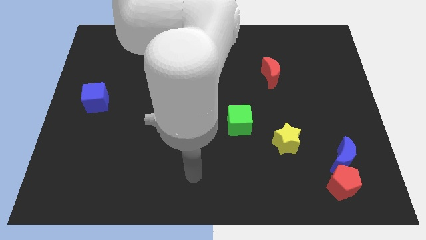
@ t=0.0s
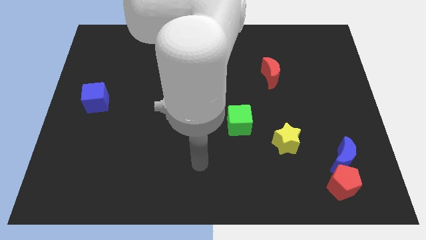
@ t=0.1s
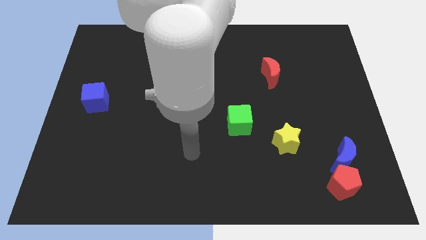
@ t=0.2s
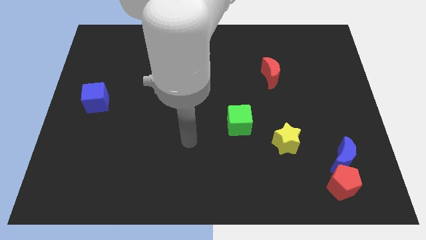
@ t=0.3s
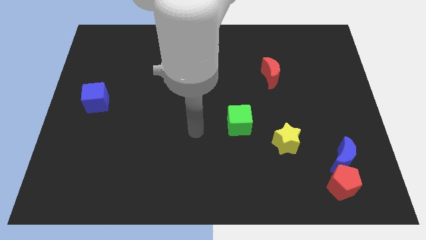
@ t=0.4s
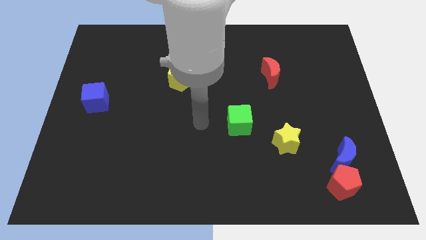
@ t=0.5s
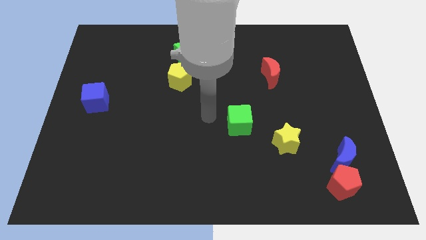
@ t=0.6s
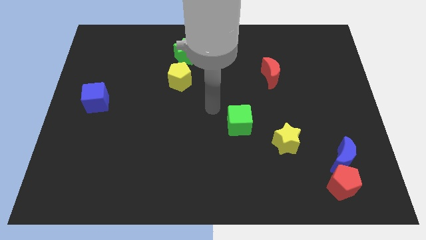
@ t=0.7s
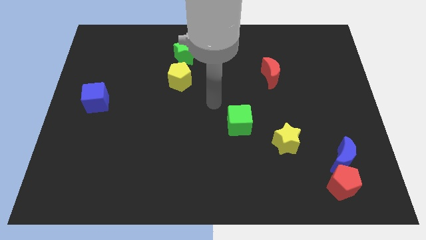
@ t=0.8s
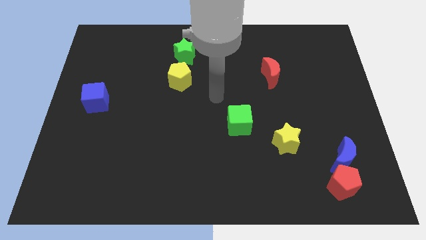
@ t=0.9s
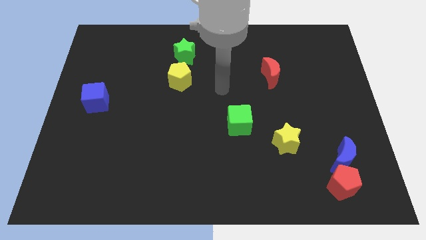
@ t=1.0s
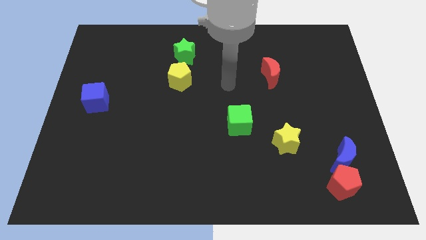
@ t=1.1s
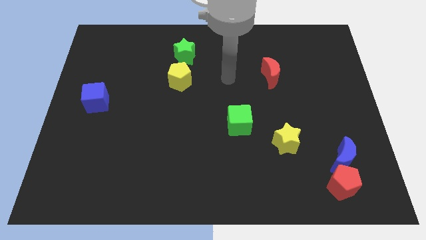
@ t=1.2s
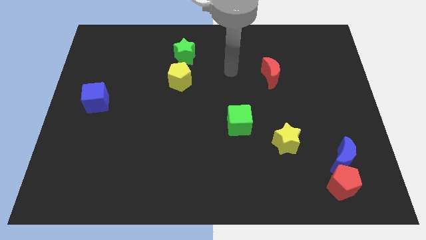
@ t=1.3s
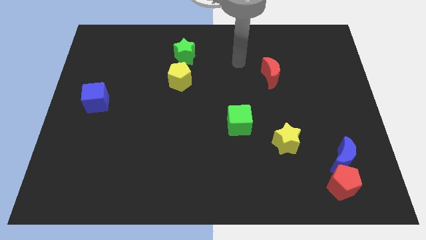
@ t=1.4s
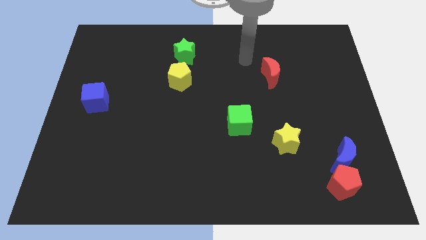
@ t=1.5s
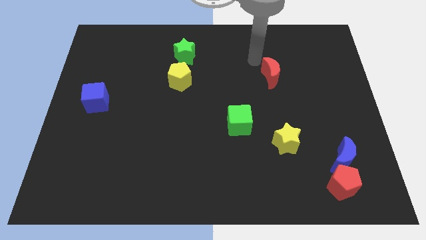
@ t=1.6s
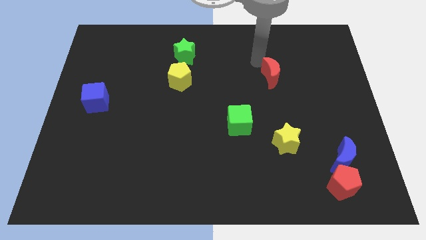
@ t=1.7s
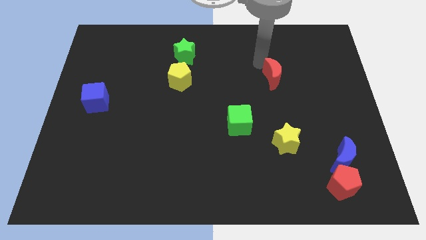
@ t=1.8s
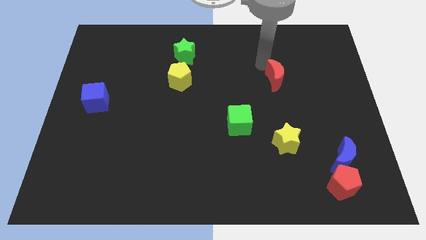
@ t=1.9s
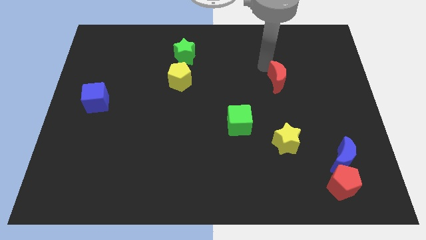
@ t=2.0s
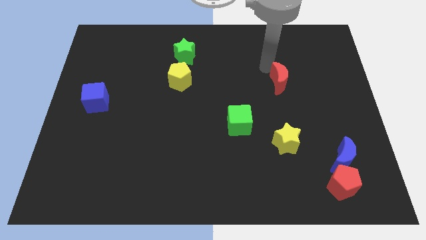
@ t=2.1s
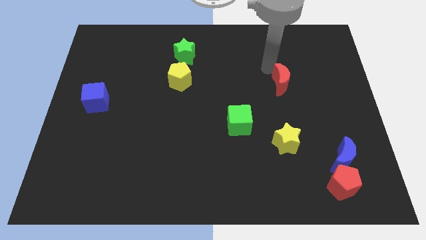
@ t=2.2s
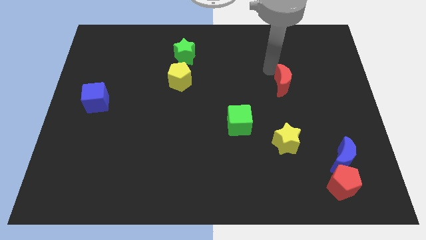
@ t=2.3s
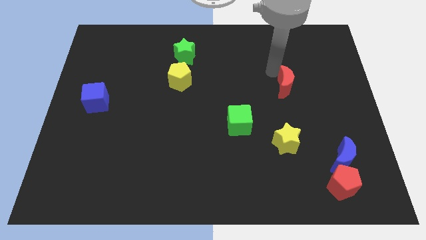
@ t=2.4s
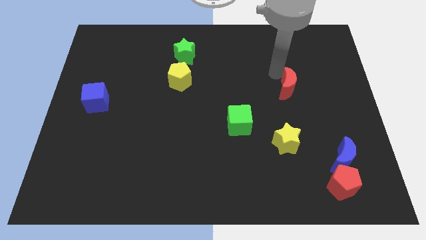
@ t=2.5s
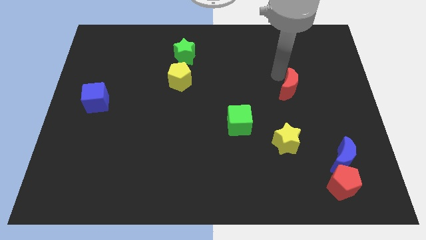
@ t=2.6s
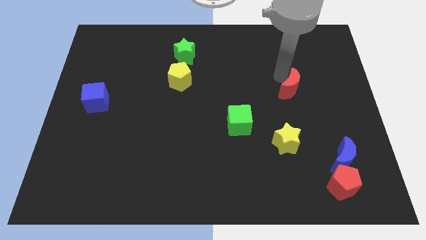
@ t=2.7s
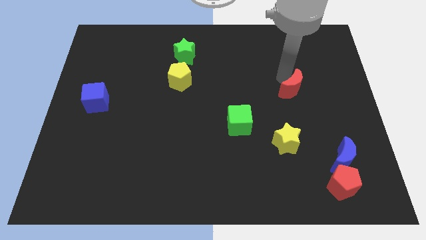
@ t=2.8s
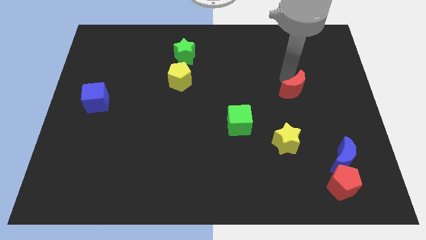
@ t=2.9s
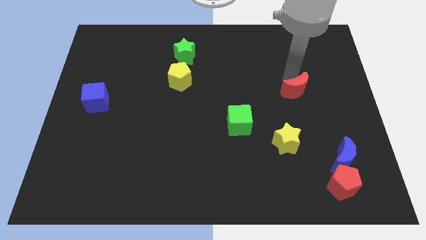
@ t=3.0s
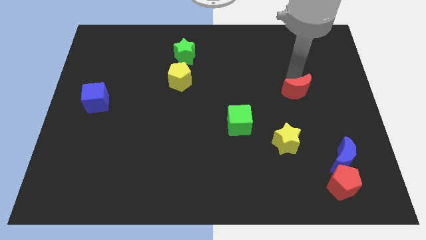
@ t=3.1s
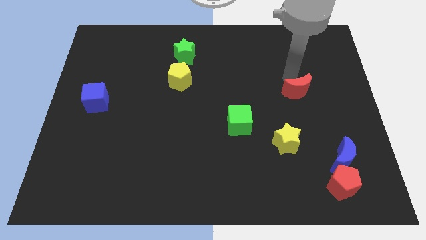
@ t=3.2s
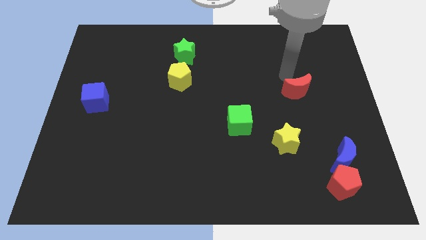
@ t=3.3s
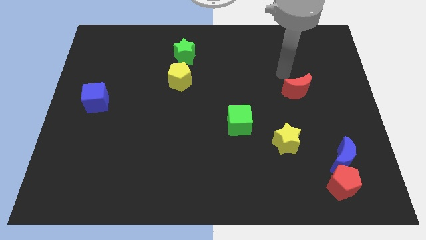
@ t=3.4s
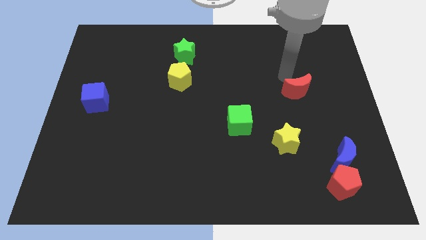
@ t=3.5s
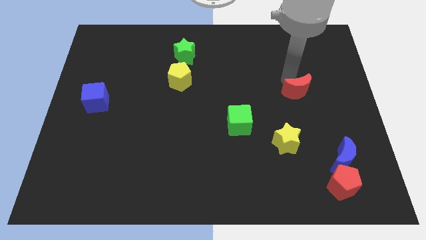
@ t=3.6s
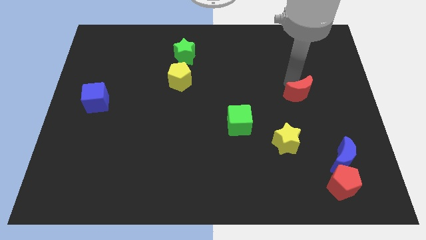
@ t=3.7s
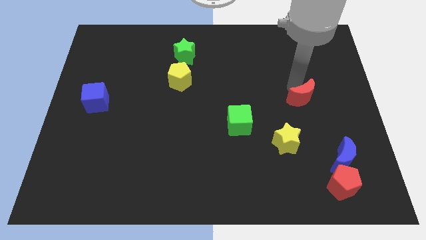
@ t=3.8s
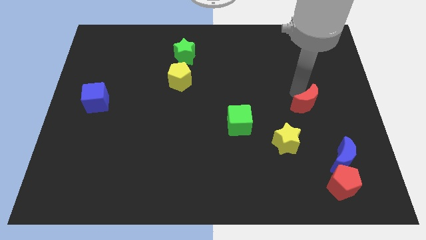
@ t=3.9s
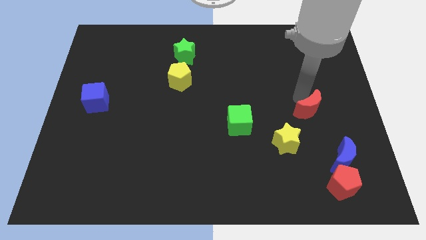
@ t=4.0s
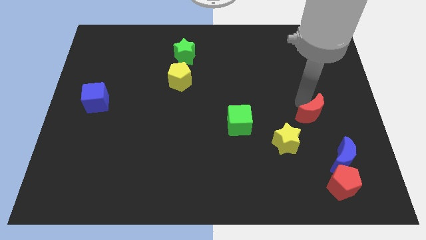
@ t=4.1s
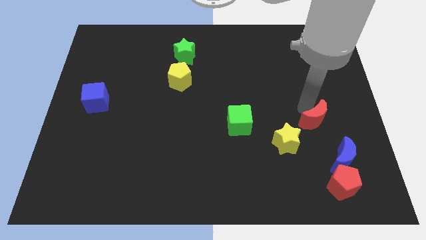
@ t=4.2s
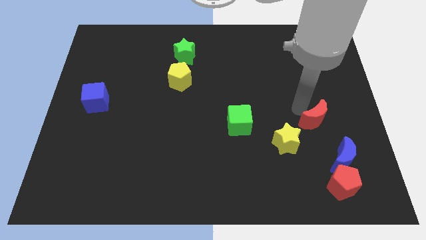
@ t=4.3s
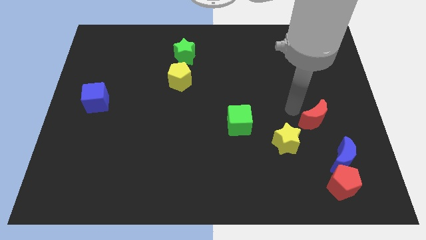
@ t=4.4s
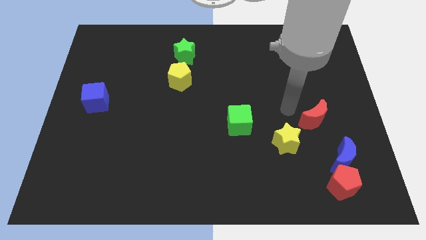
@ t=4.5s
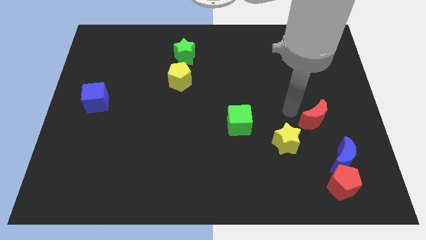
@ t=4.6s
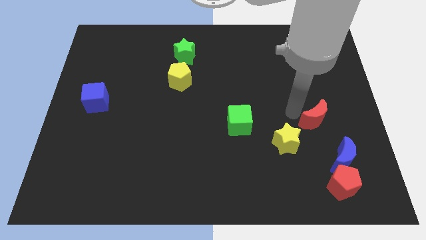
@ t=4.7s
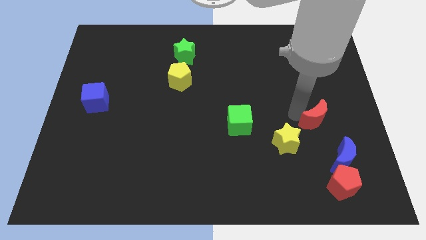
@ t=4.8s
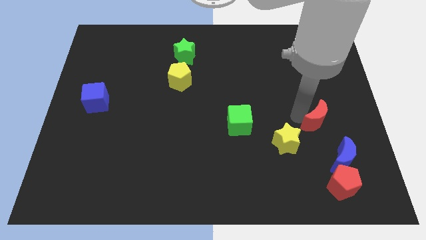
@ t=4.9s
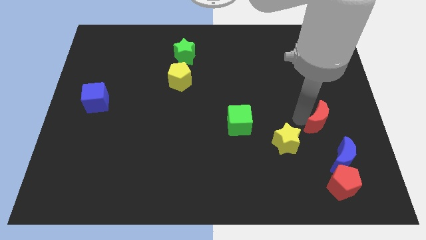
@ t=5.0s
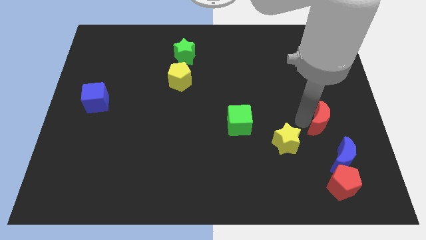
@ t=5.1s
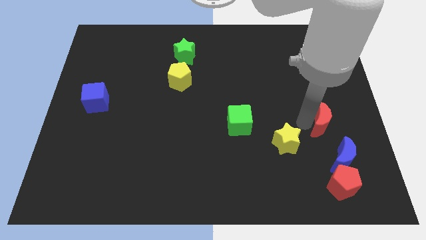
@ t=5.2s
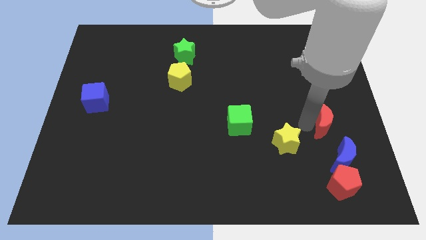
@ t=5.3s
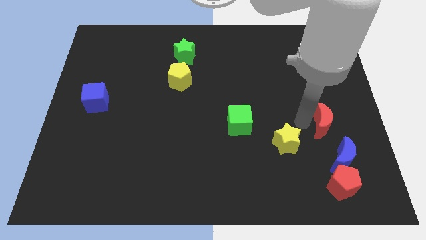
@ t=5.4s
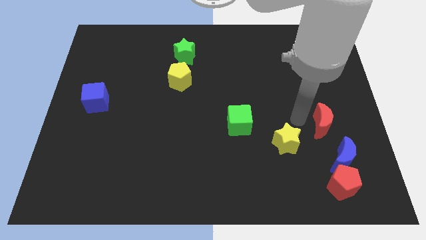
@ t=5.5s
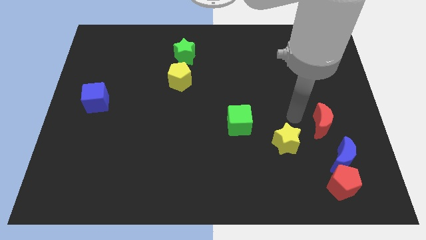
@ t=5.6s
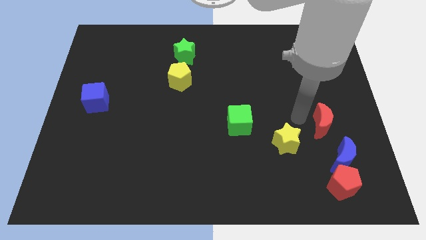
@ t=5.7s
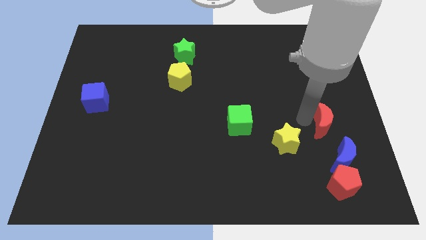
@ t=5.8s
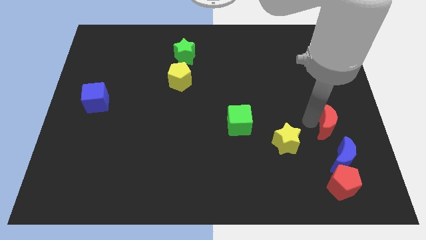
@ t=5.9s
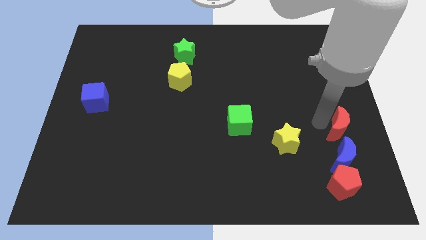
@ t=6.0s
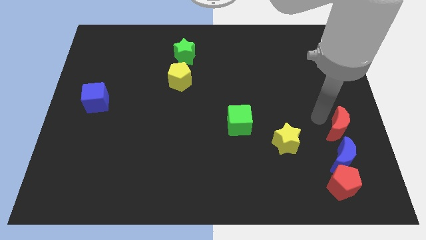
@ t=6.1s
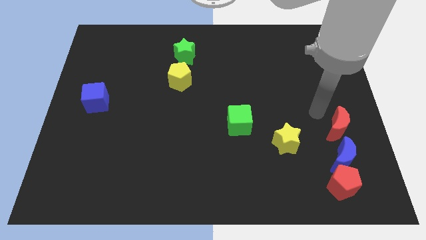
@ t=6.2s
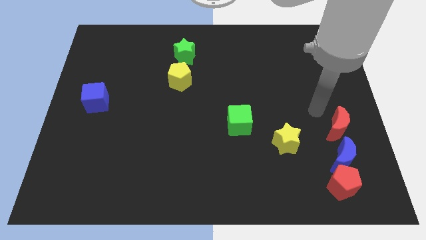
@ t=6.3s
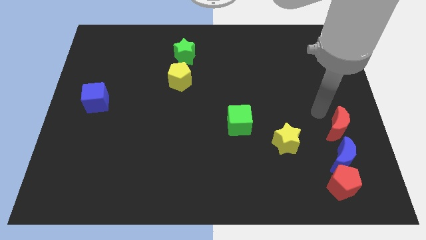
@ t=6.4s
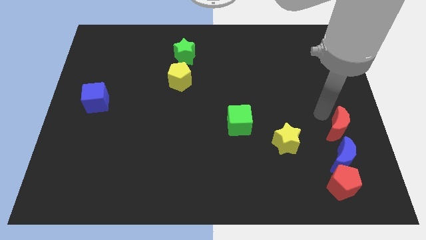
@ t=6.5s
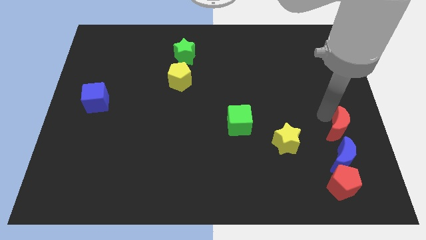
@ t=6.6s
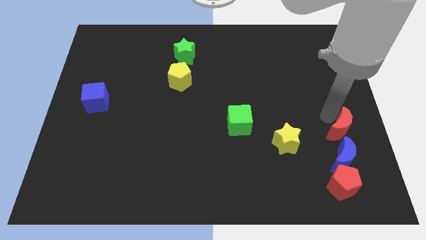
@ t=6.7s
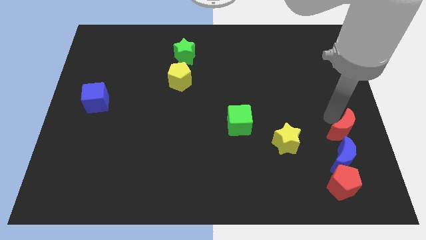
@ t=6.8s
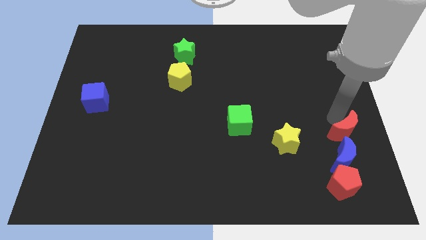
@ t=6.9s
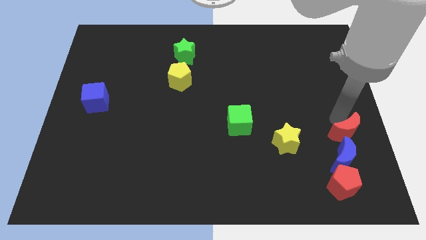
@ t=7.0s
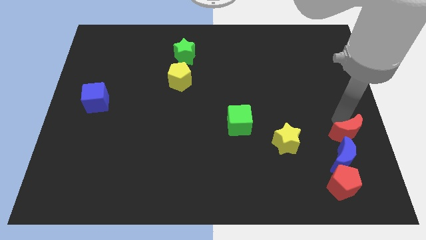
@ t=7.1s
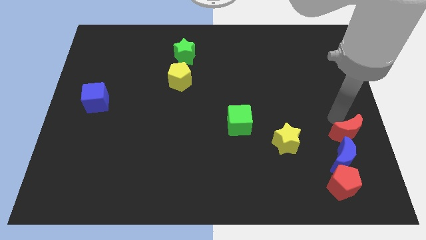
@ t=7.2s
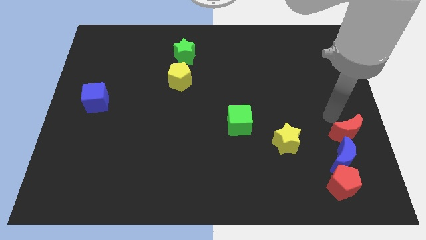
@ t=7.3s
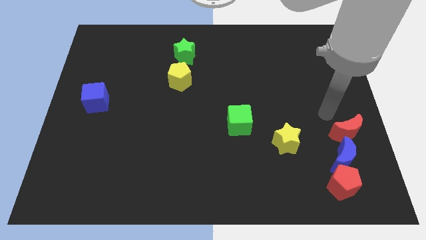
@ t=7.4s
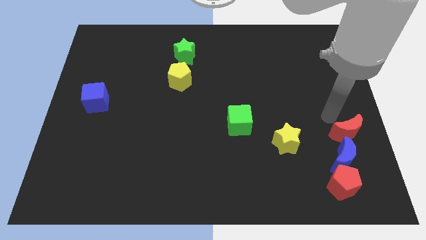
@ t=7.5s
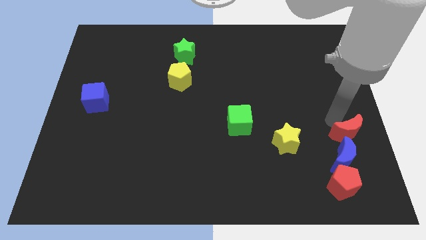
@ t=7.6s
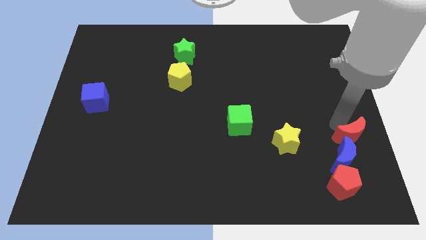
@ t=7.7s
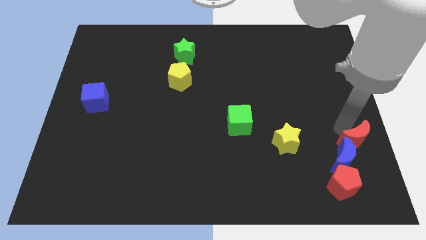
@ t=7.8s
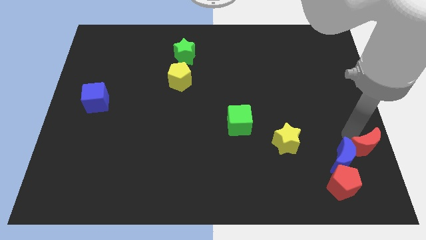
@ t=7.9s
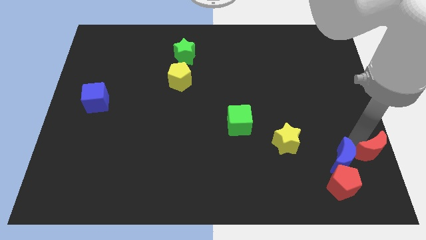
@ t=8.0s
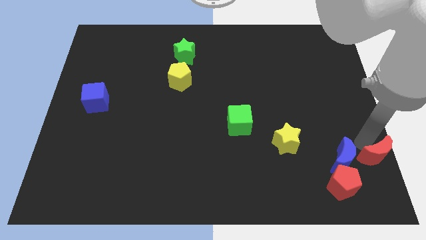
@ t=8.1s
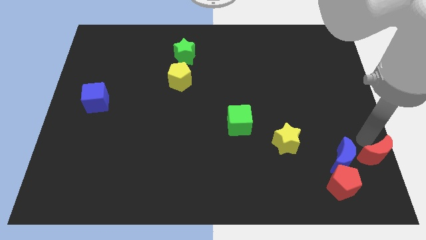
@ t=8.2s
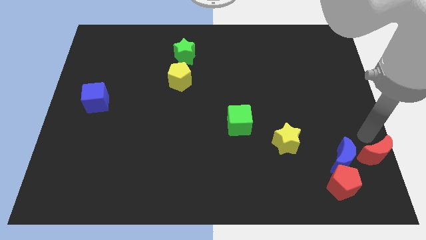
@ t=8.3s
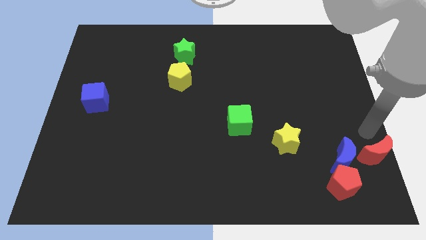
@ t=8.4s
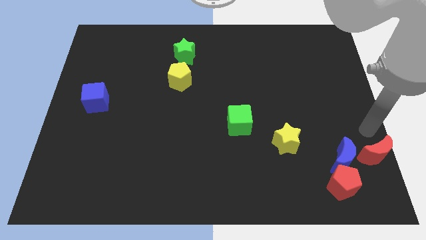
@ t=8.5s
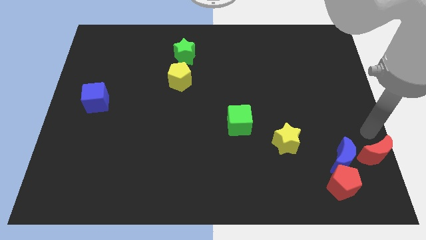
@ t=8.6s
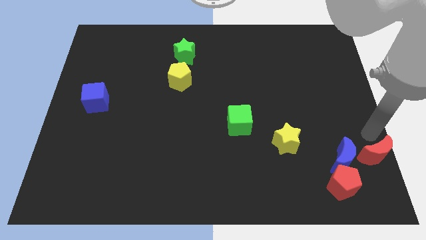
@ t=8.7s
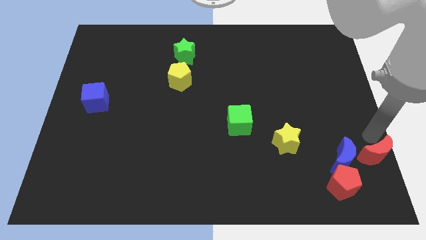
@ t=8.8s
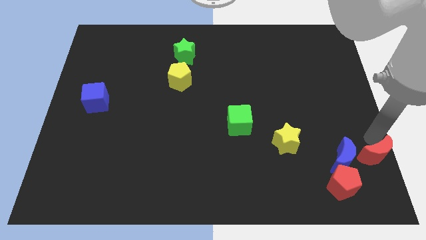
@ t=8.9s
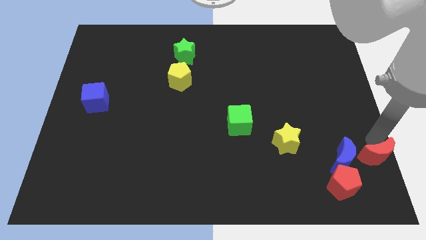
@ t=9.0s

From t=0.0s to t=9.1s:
move the red moon to the bottom right corner
